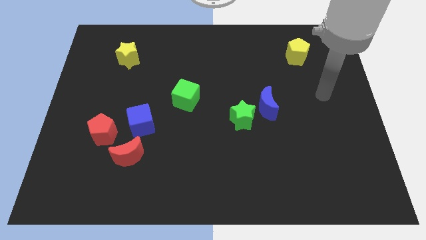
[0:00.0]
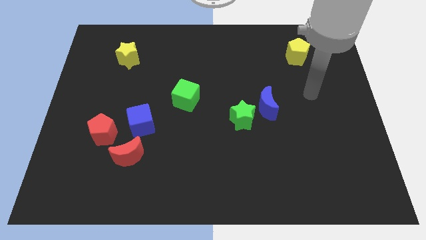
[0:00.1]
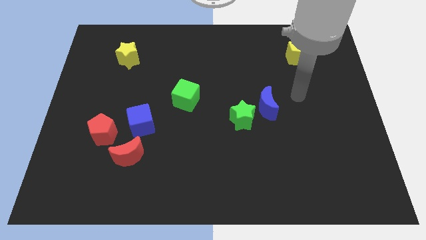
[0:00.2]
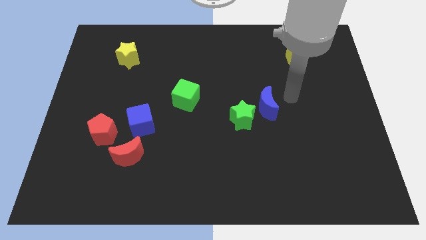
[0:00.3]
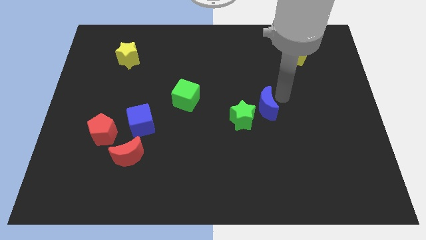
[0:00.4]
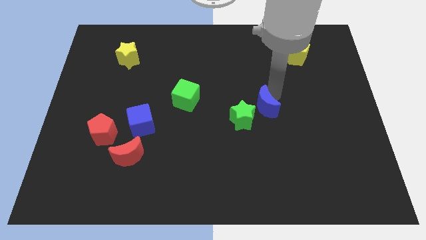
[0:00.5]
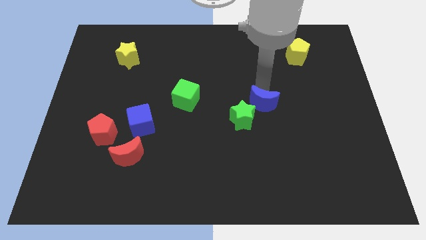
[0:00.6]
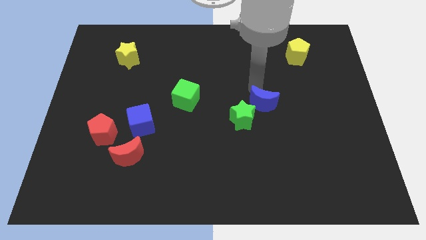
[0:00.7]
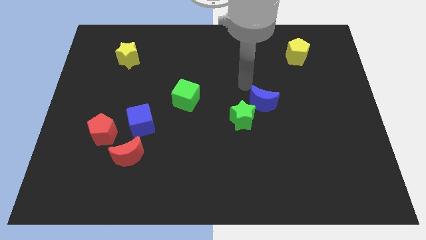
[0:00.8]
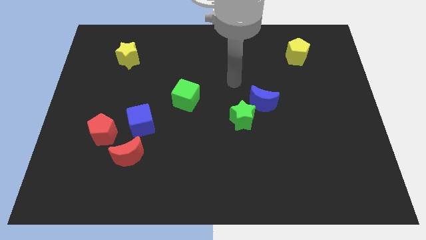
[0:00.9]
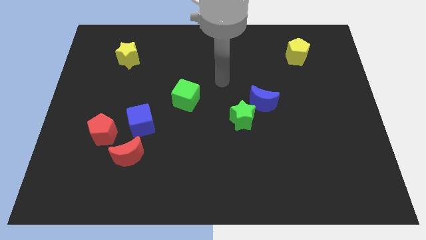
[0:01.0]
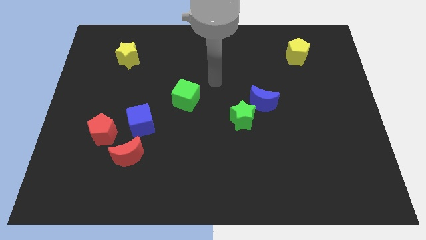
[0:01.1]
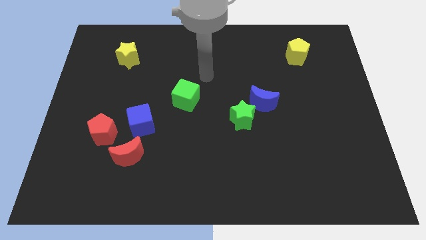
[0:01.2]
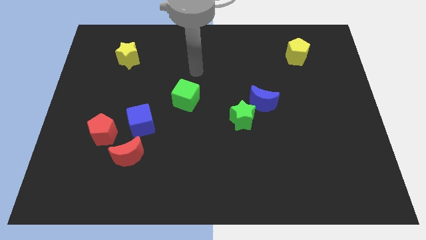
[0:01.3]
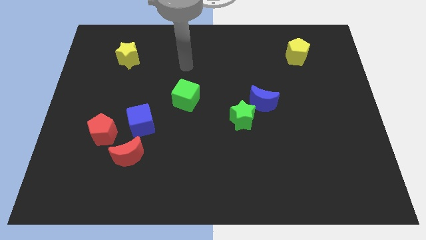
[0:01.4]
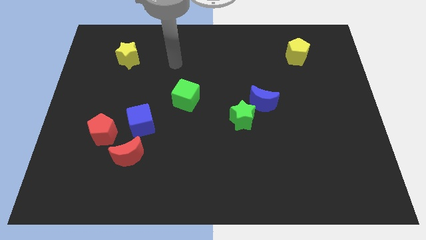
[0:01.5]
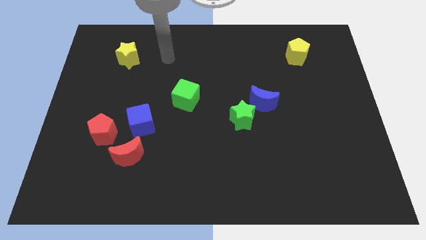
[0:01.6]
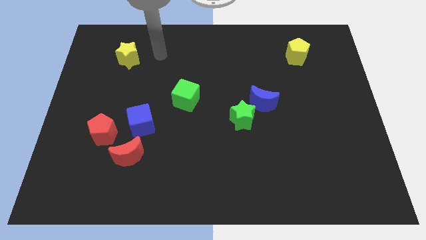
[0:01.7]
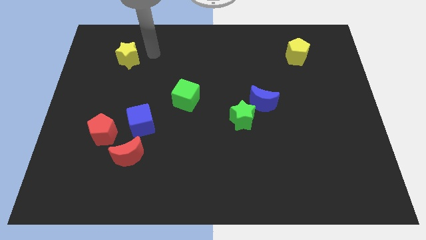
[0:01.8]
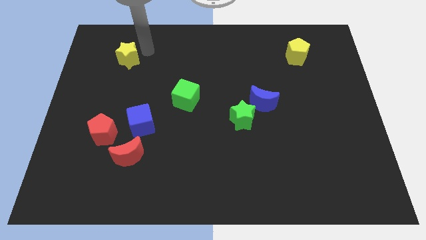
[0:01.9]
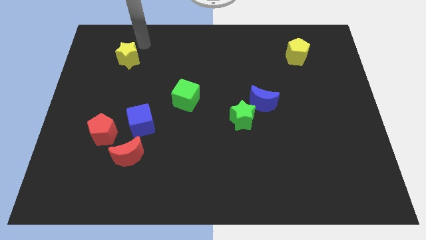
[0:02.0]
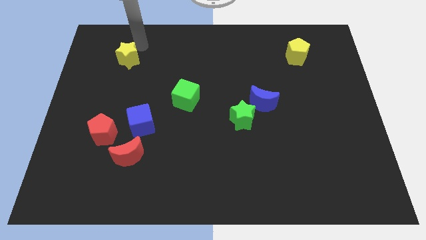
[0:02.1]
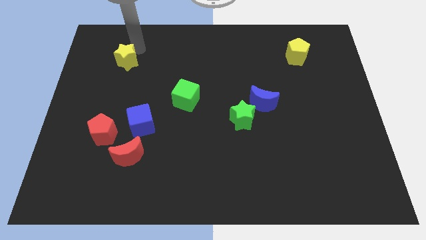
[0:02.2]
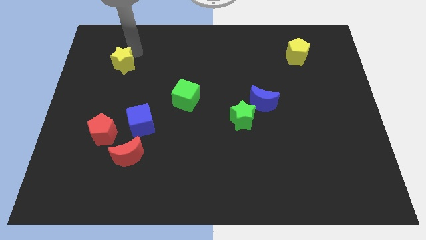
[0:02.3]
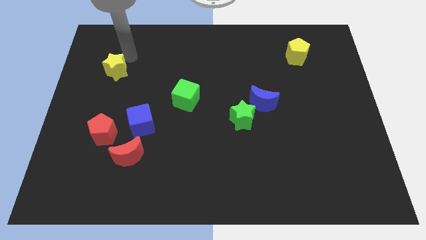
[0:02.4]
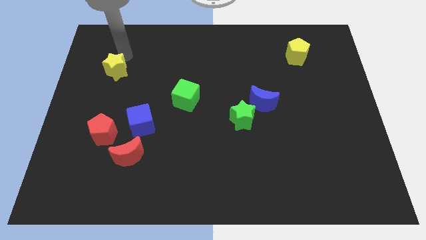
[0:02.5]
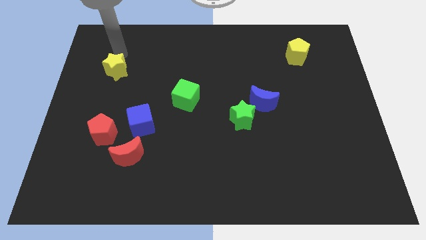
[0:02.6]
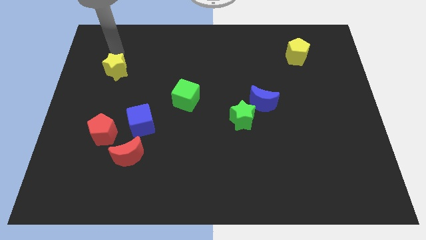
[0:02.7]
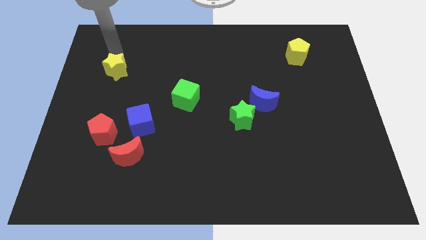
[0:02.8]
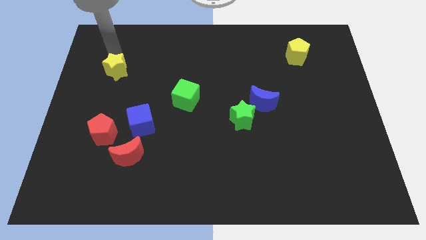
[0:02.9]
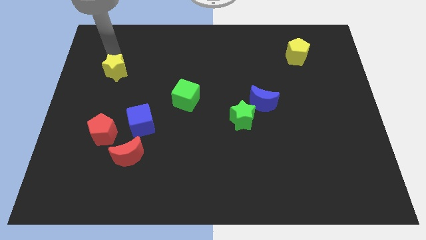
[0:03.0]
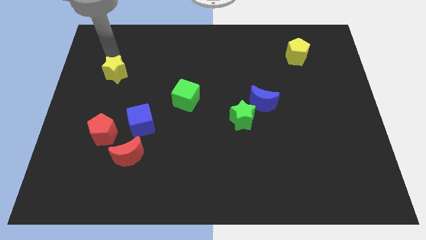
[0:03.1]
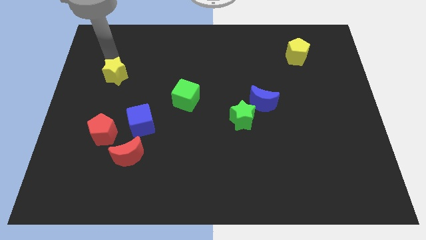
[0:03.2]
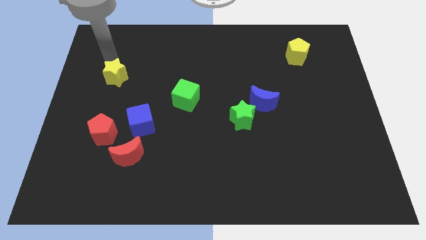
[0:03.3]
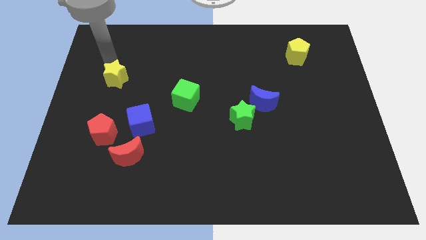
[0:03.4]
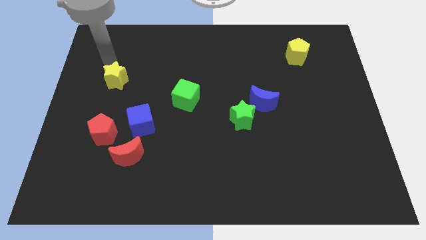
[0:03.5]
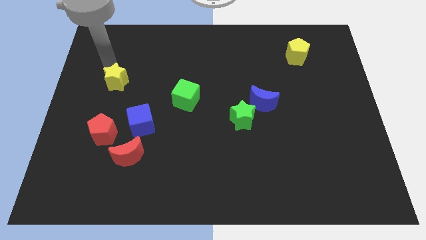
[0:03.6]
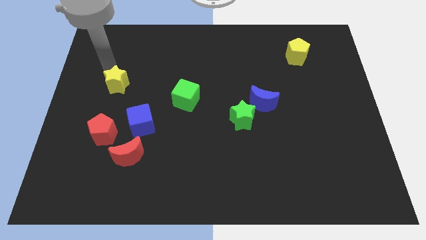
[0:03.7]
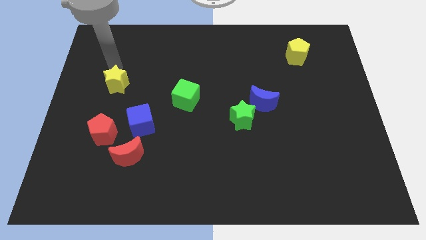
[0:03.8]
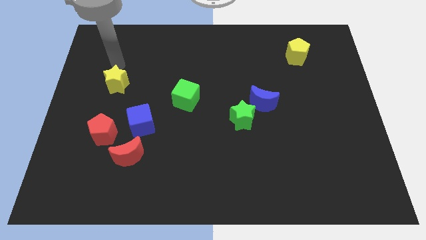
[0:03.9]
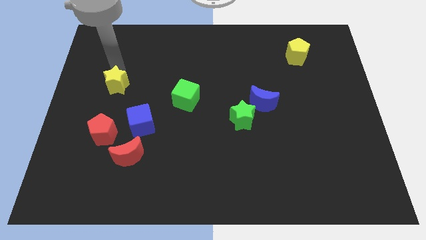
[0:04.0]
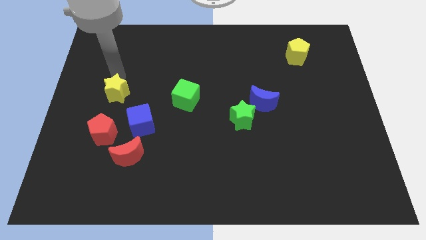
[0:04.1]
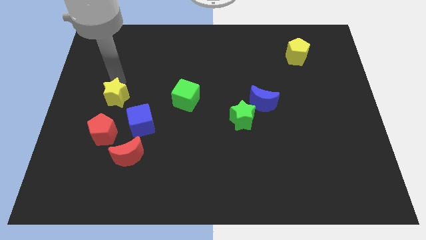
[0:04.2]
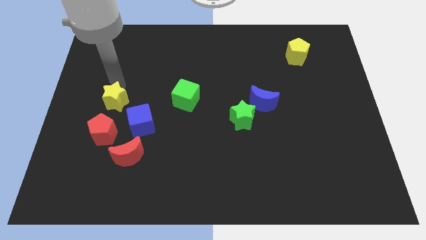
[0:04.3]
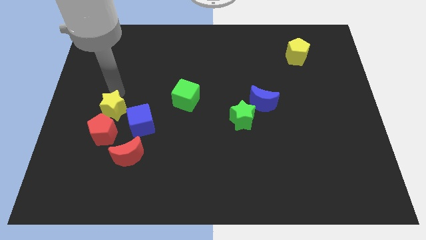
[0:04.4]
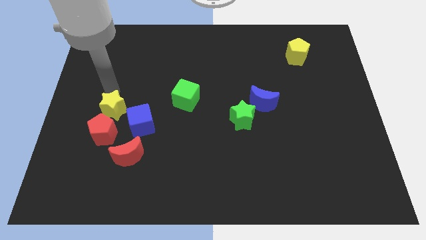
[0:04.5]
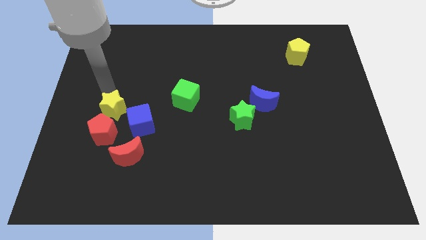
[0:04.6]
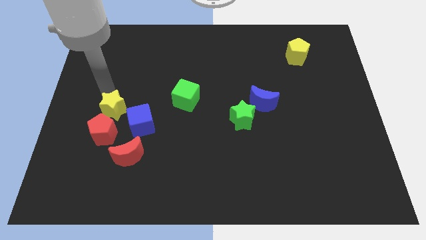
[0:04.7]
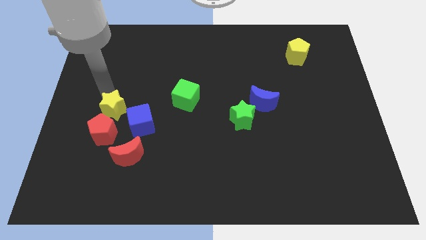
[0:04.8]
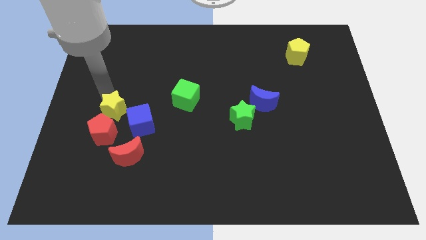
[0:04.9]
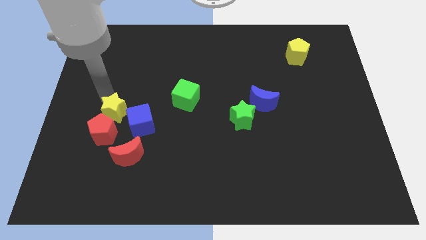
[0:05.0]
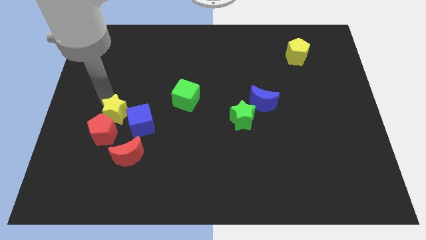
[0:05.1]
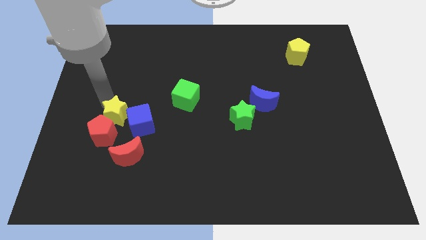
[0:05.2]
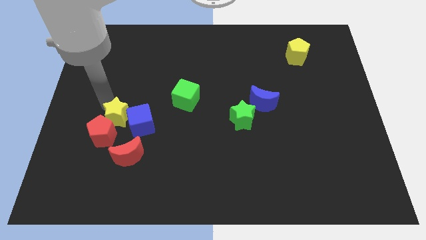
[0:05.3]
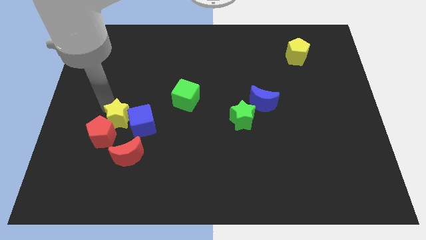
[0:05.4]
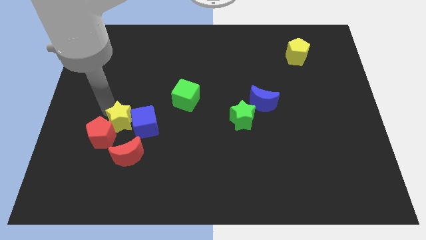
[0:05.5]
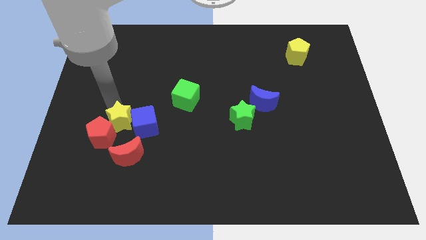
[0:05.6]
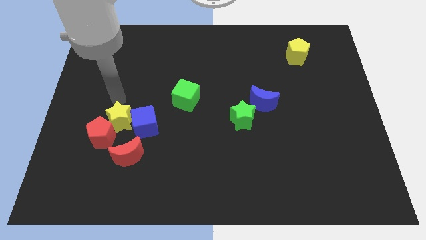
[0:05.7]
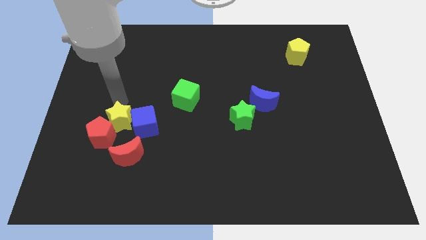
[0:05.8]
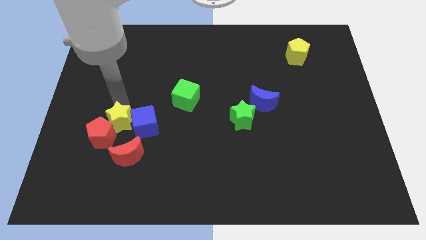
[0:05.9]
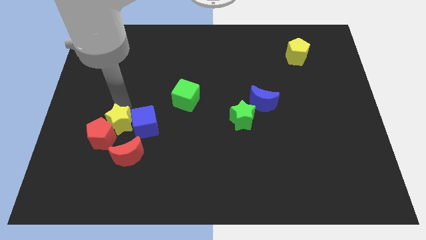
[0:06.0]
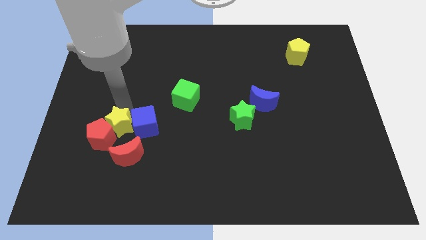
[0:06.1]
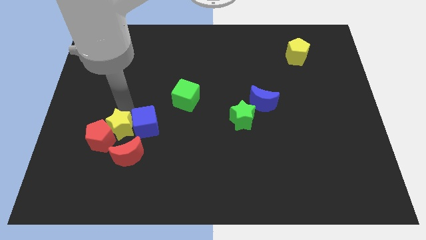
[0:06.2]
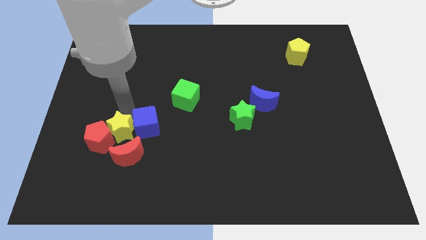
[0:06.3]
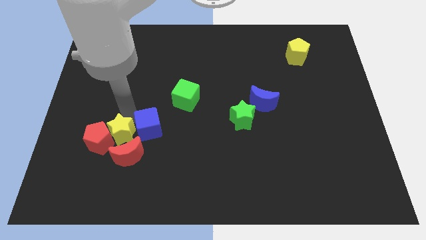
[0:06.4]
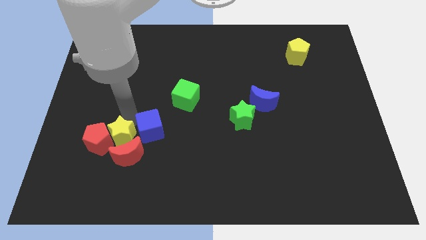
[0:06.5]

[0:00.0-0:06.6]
slide the yellow star close to the red moon

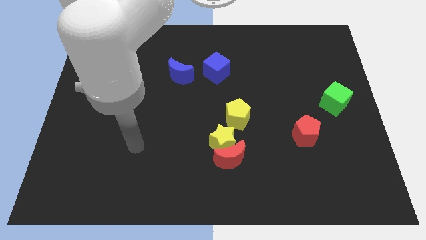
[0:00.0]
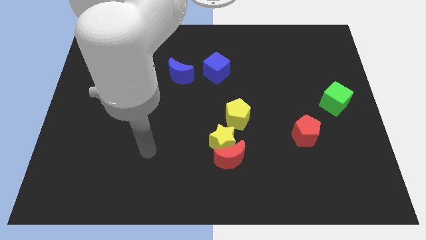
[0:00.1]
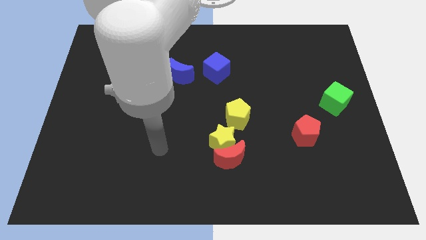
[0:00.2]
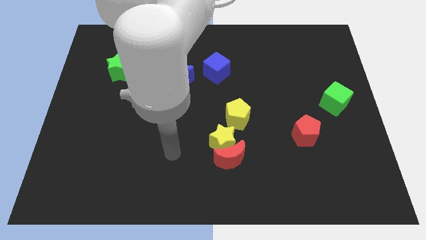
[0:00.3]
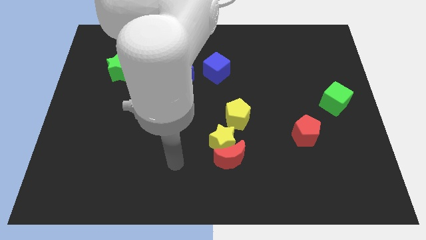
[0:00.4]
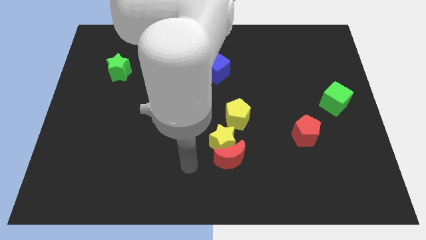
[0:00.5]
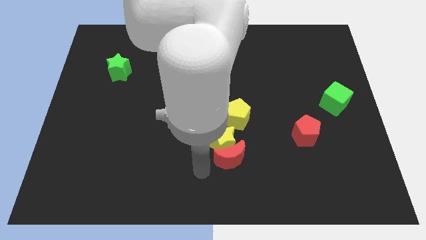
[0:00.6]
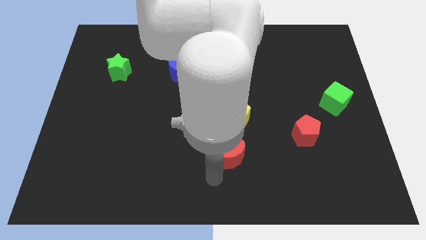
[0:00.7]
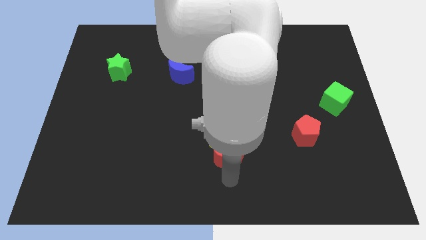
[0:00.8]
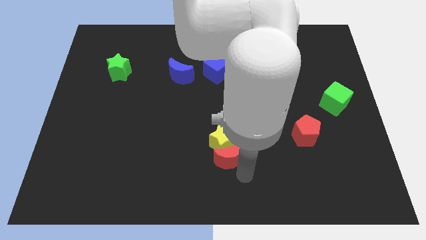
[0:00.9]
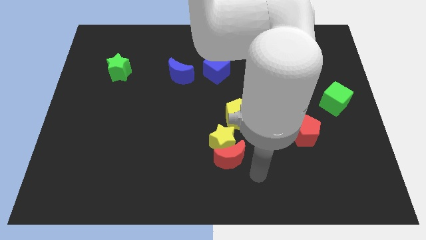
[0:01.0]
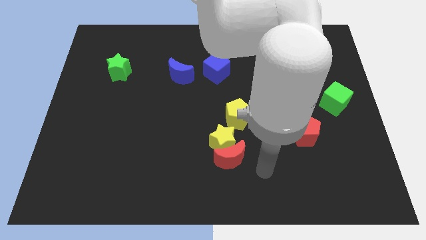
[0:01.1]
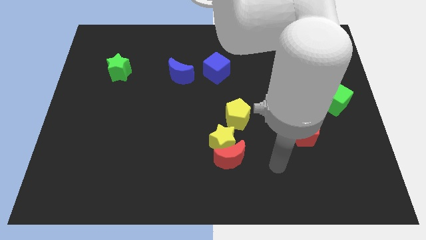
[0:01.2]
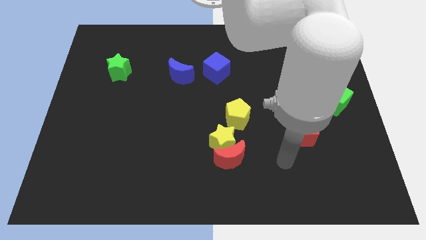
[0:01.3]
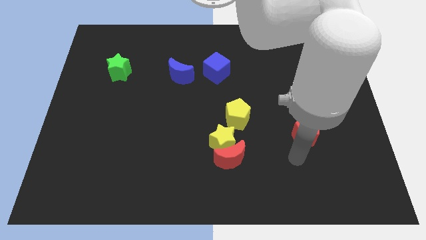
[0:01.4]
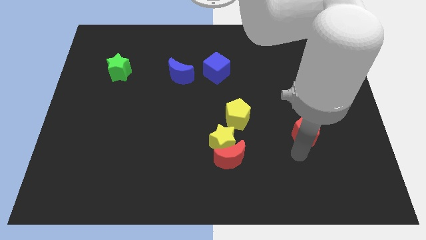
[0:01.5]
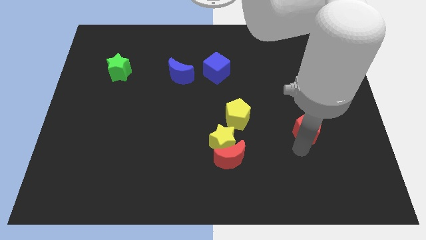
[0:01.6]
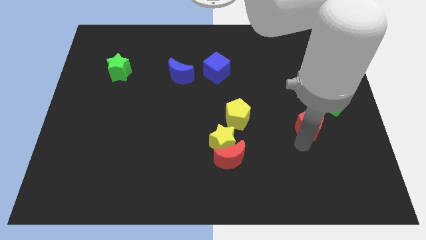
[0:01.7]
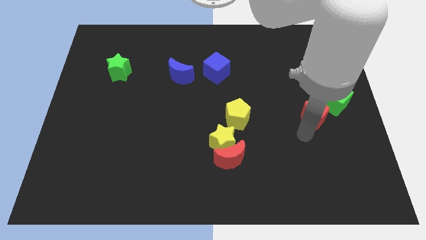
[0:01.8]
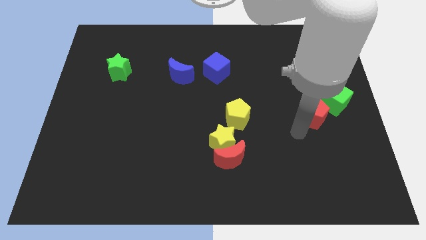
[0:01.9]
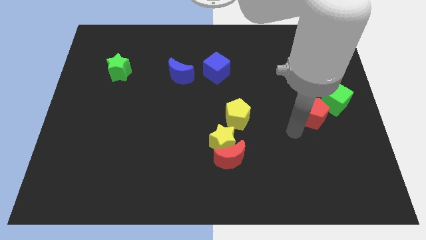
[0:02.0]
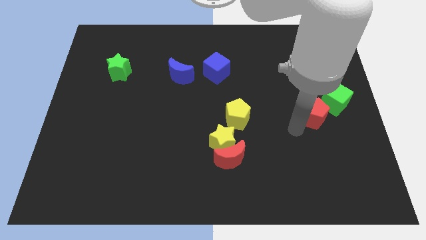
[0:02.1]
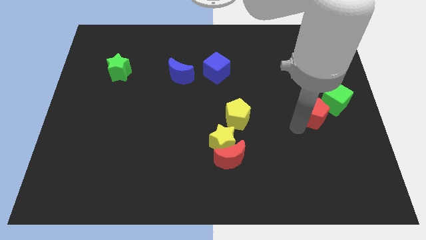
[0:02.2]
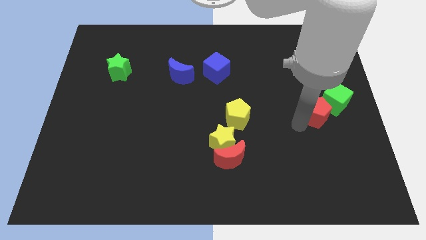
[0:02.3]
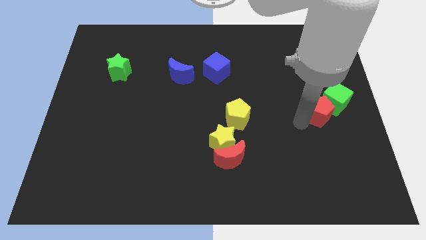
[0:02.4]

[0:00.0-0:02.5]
slide the red pentagon close to the green cube
